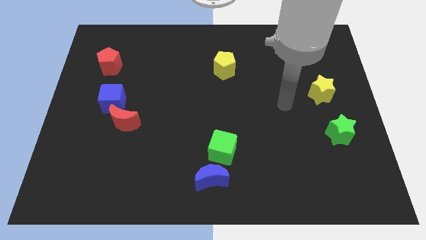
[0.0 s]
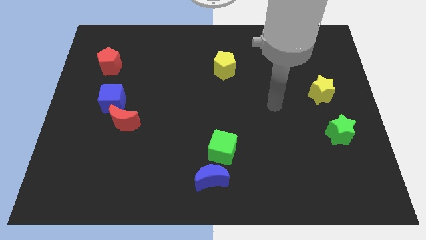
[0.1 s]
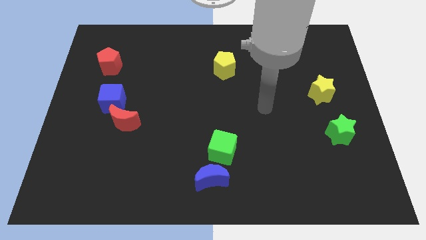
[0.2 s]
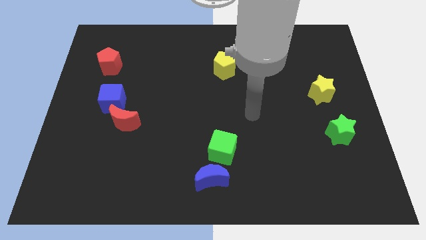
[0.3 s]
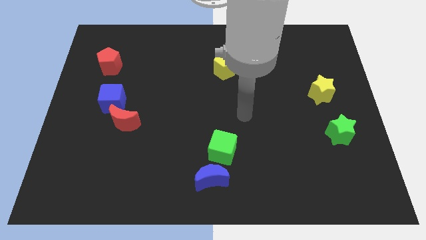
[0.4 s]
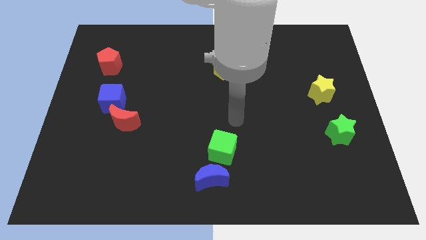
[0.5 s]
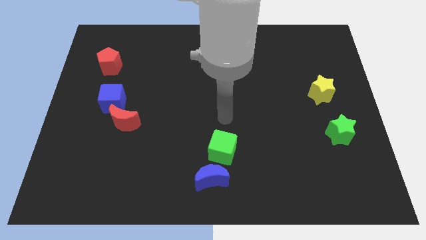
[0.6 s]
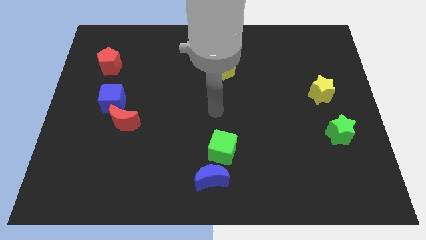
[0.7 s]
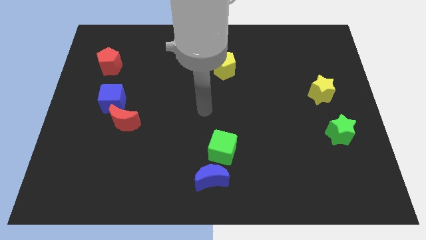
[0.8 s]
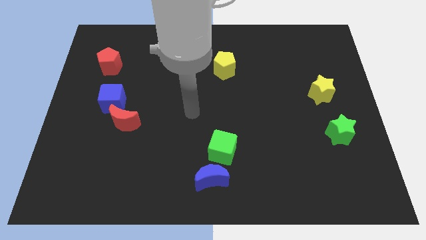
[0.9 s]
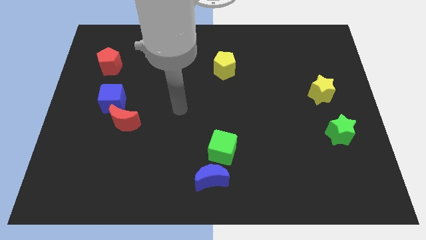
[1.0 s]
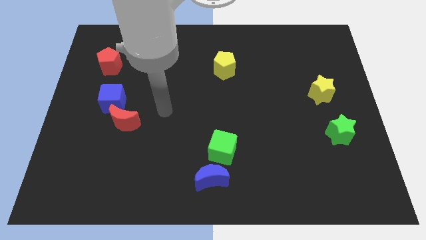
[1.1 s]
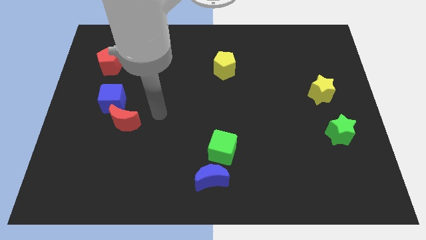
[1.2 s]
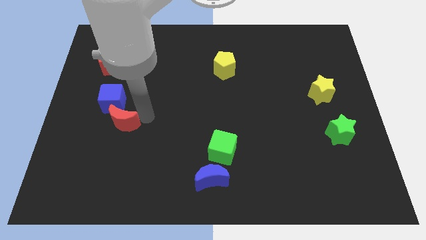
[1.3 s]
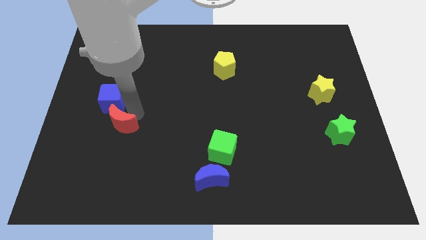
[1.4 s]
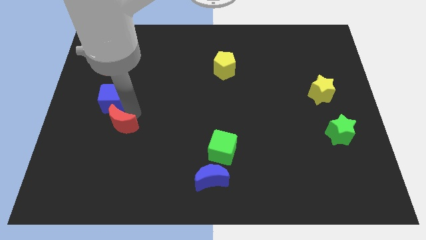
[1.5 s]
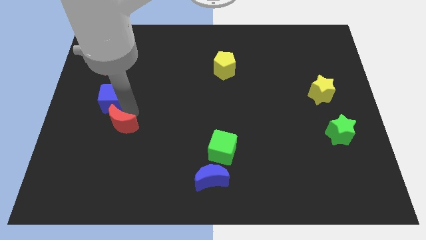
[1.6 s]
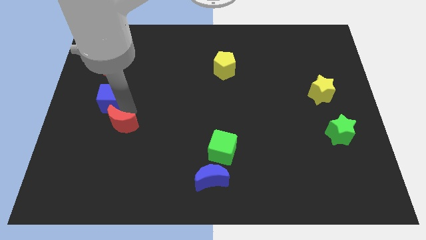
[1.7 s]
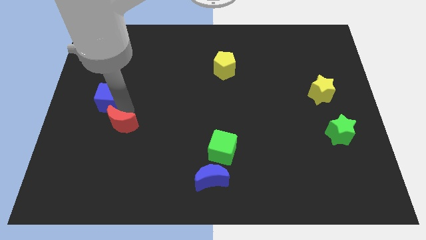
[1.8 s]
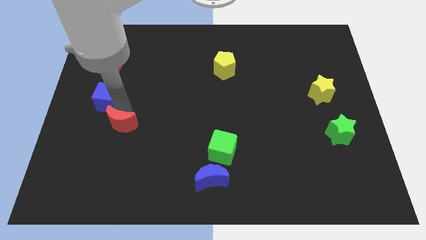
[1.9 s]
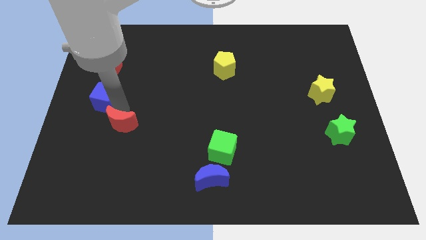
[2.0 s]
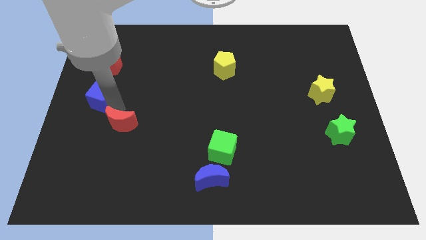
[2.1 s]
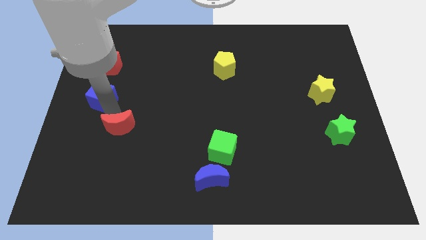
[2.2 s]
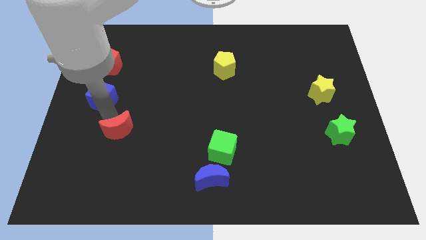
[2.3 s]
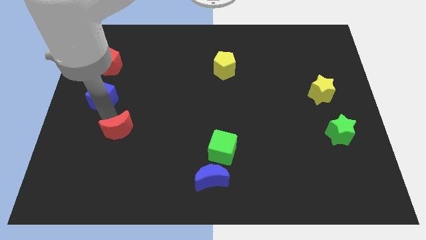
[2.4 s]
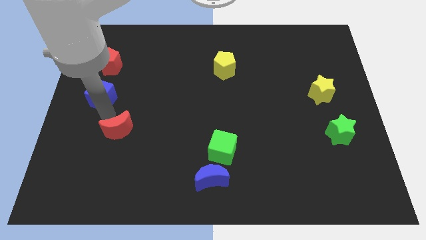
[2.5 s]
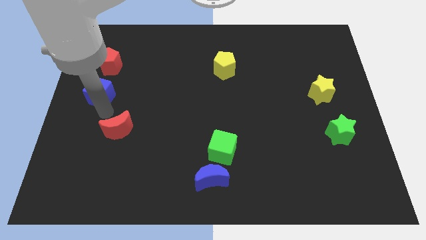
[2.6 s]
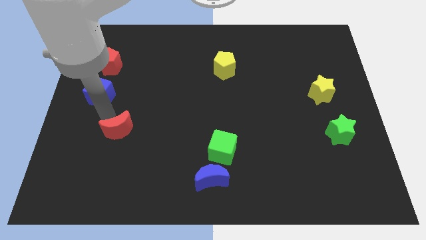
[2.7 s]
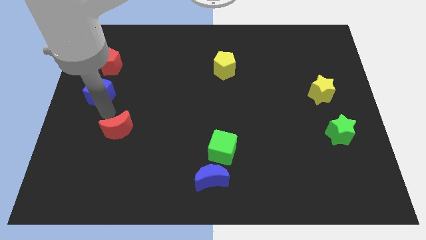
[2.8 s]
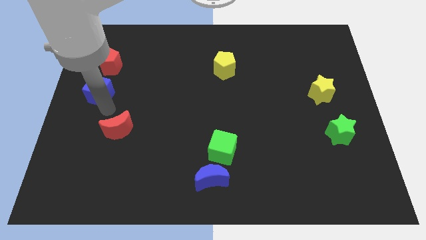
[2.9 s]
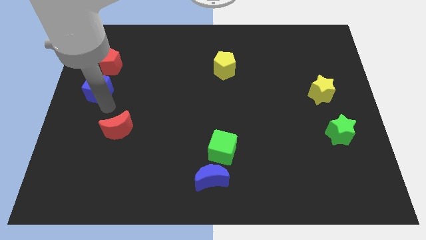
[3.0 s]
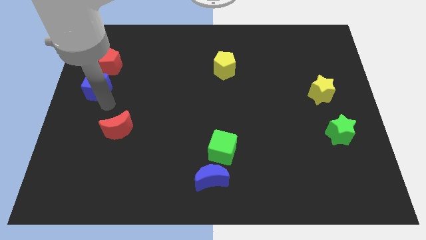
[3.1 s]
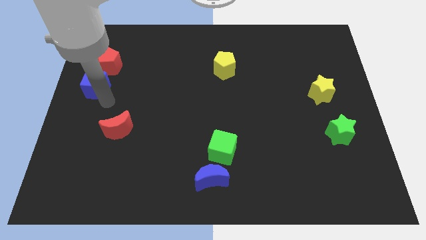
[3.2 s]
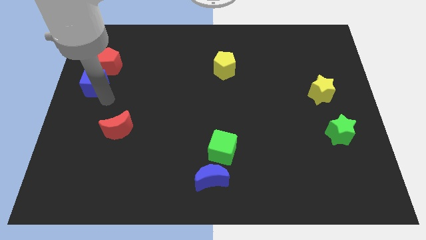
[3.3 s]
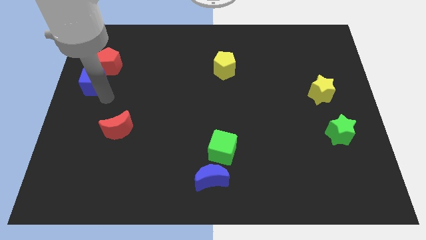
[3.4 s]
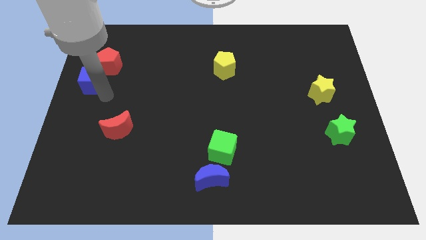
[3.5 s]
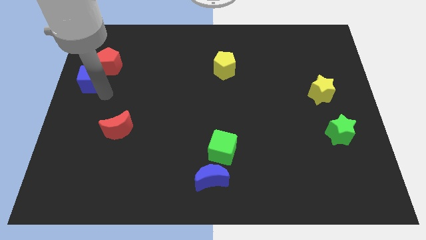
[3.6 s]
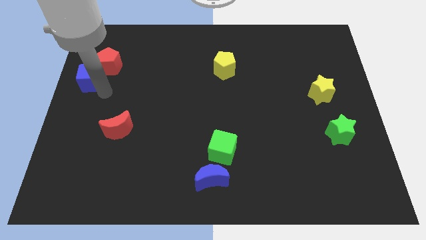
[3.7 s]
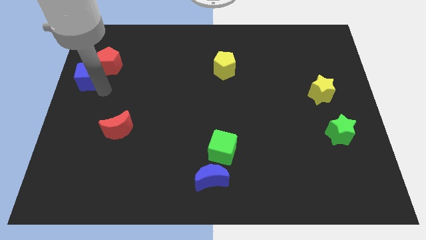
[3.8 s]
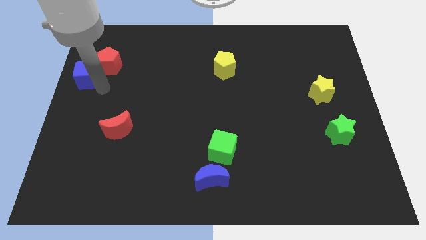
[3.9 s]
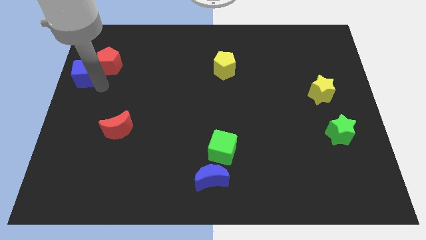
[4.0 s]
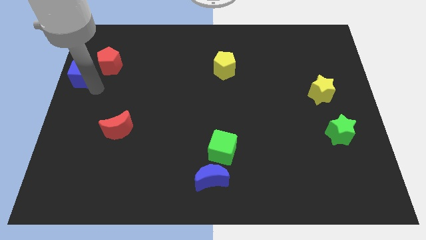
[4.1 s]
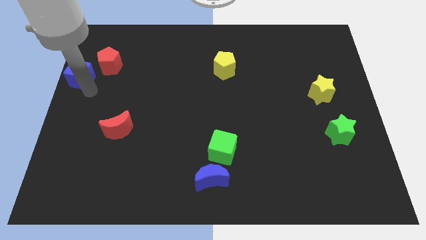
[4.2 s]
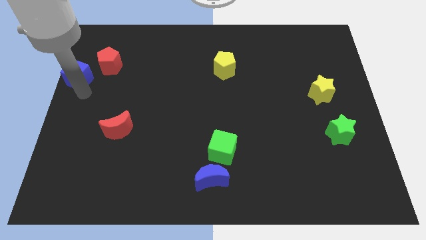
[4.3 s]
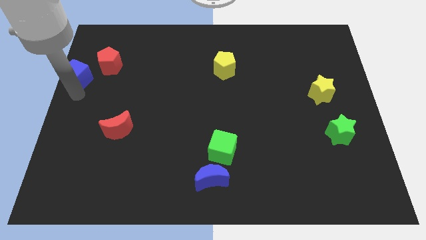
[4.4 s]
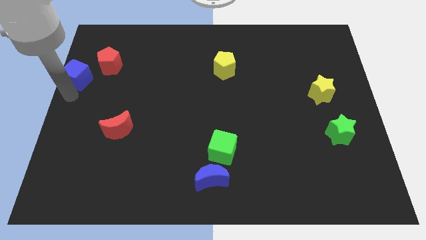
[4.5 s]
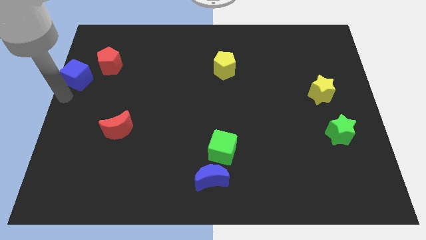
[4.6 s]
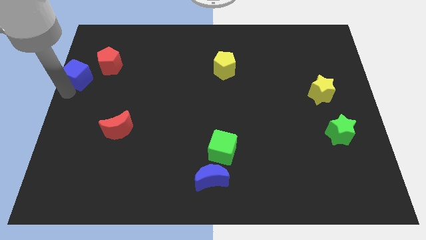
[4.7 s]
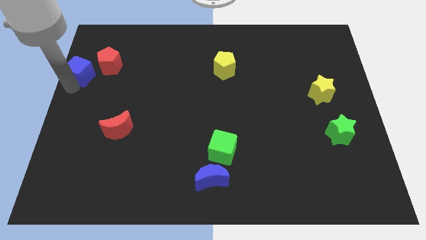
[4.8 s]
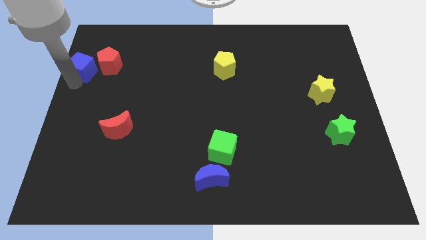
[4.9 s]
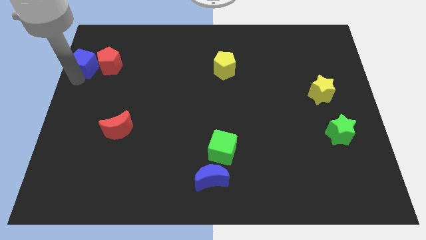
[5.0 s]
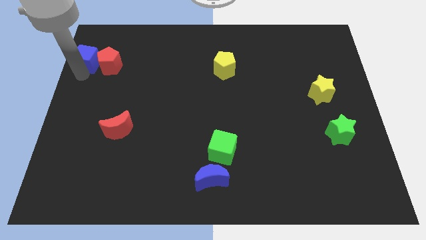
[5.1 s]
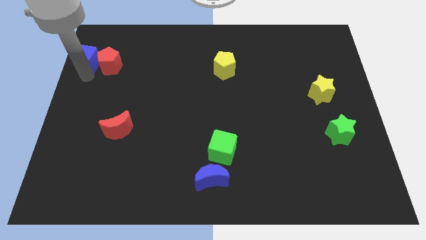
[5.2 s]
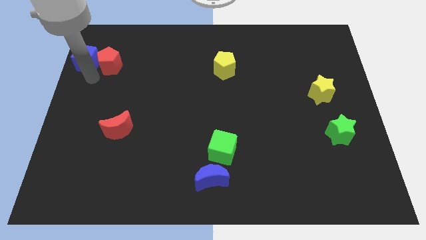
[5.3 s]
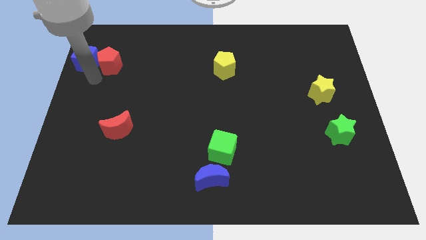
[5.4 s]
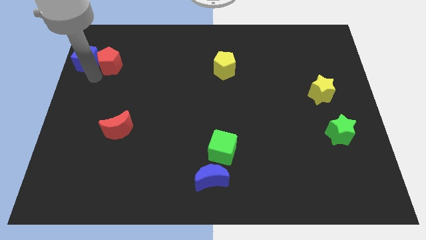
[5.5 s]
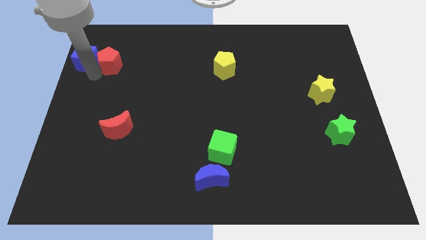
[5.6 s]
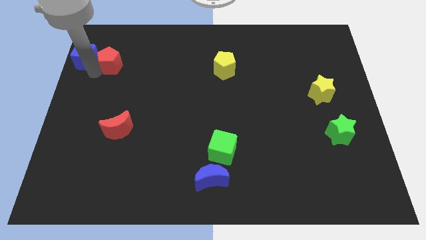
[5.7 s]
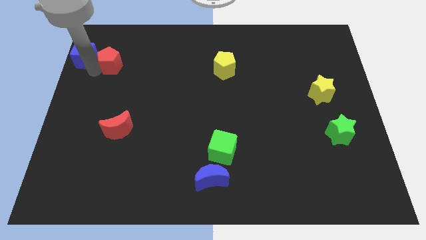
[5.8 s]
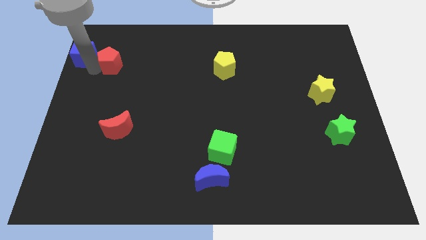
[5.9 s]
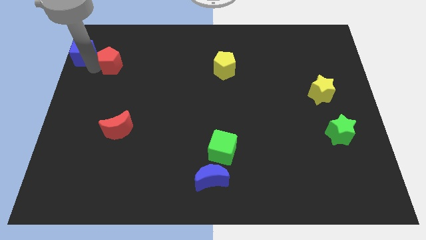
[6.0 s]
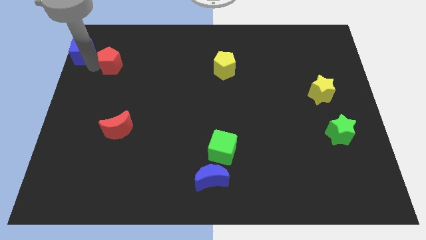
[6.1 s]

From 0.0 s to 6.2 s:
move the blue cube to the top left
